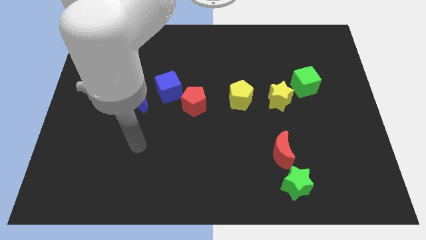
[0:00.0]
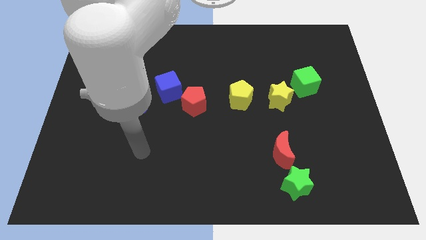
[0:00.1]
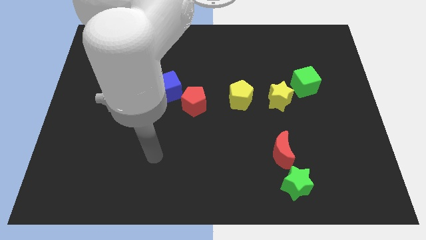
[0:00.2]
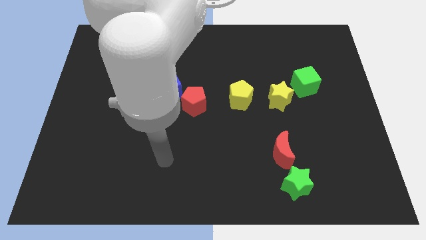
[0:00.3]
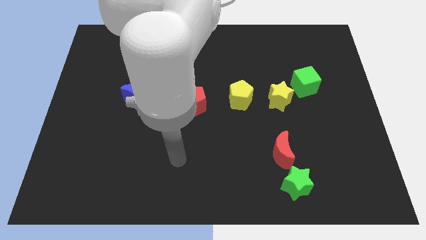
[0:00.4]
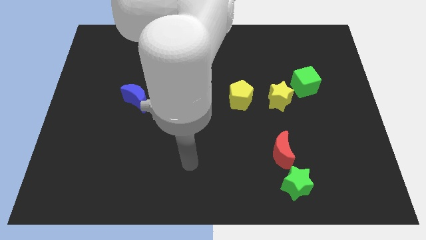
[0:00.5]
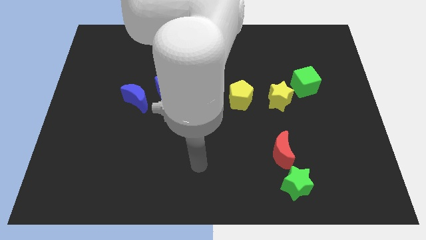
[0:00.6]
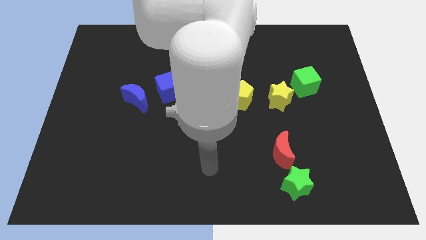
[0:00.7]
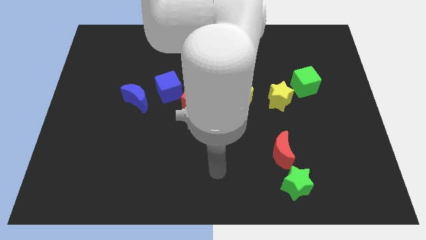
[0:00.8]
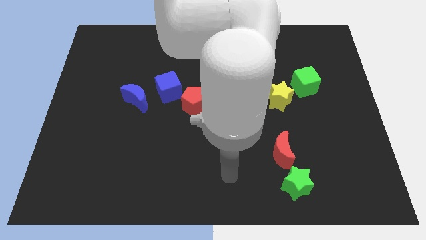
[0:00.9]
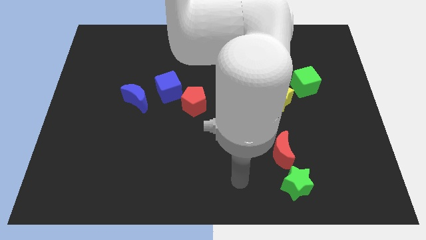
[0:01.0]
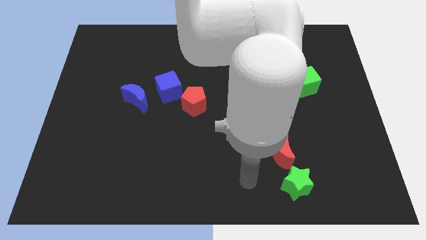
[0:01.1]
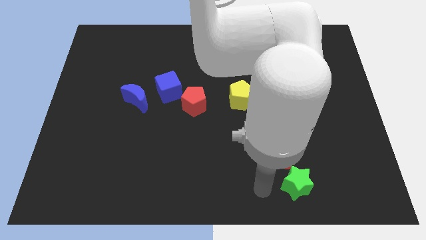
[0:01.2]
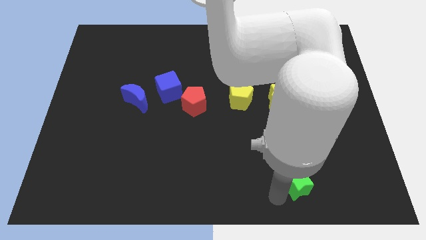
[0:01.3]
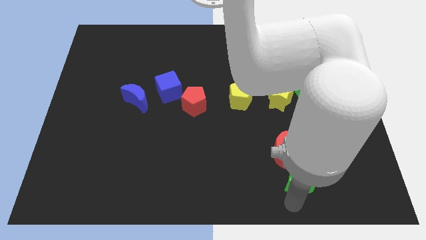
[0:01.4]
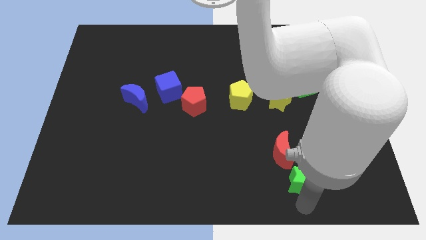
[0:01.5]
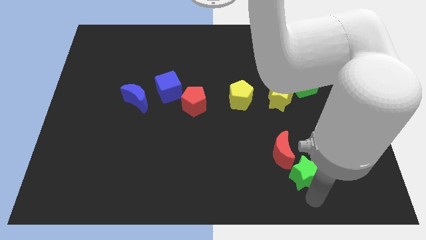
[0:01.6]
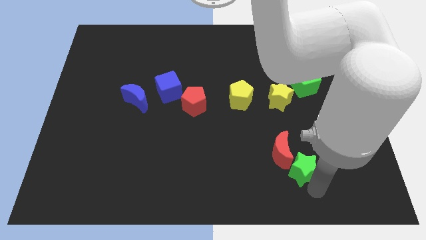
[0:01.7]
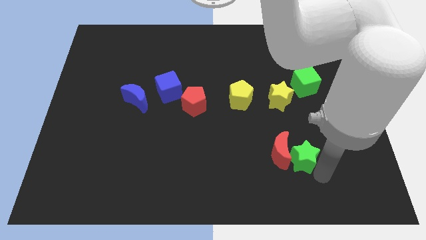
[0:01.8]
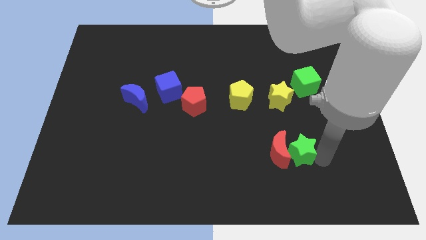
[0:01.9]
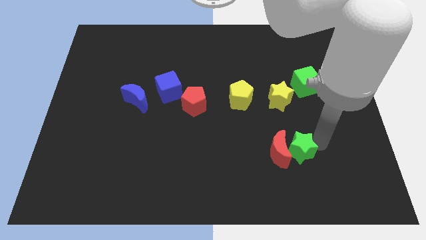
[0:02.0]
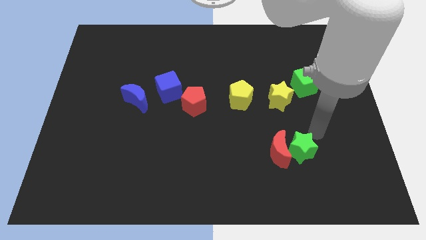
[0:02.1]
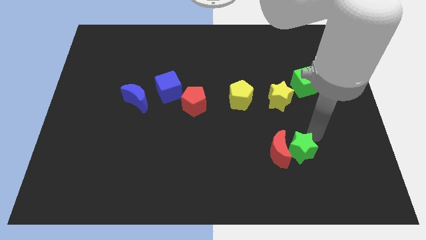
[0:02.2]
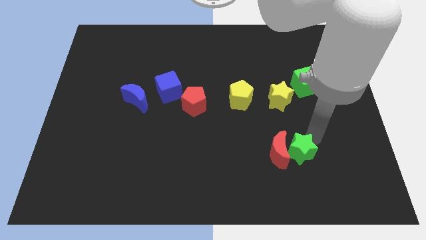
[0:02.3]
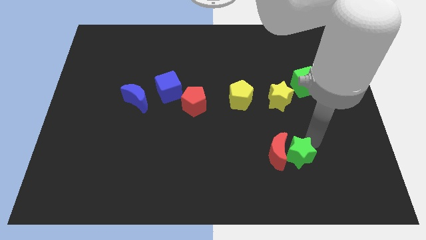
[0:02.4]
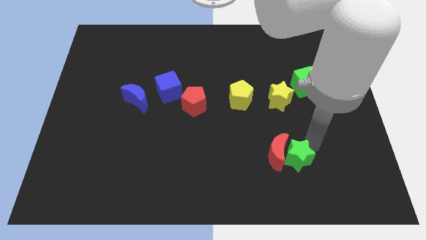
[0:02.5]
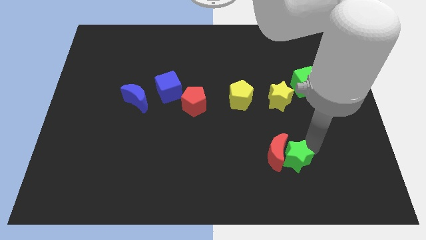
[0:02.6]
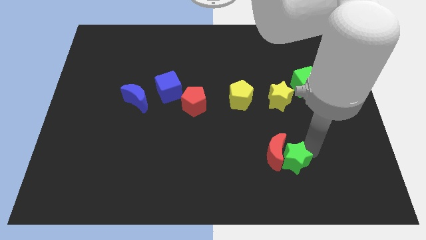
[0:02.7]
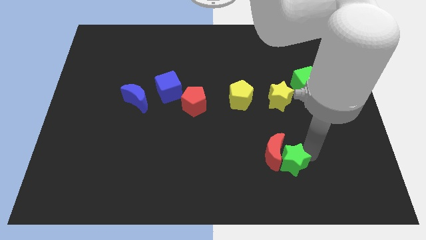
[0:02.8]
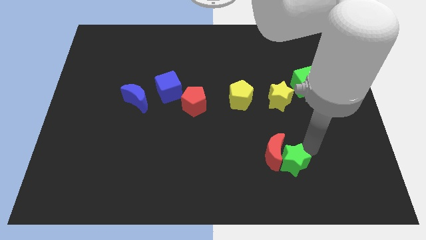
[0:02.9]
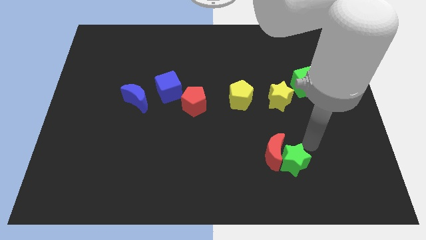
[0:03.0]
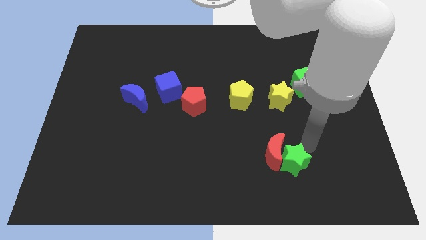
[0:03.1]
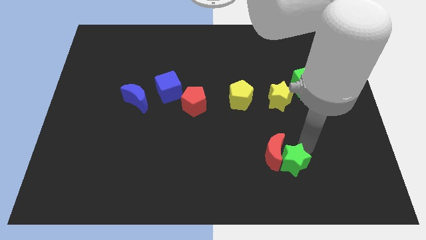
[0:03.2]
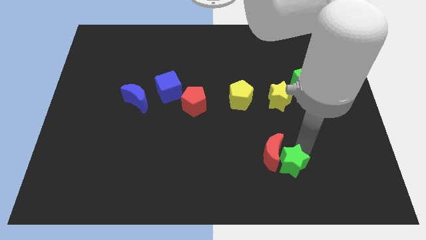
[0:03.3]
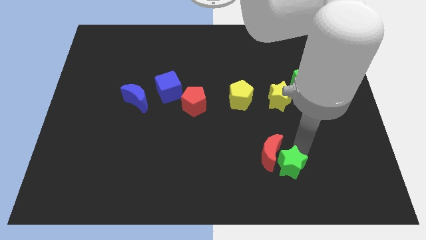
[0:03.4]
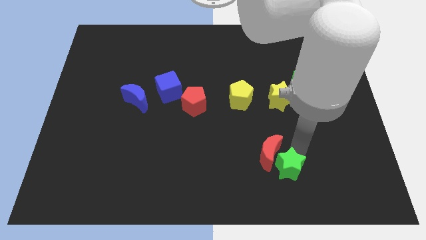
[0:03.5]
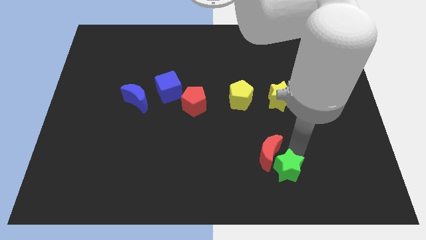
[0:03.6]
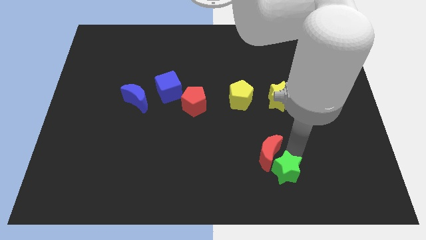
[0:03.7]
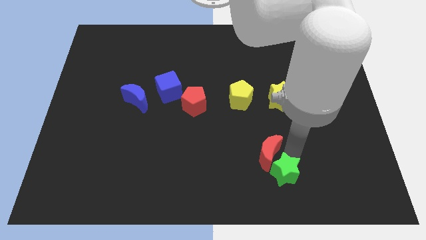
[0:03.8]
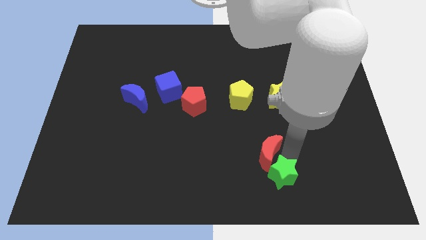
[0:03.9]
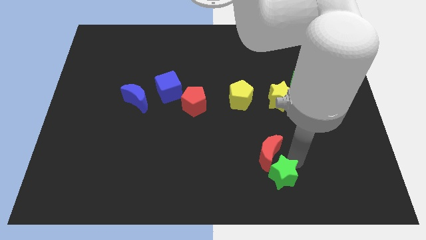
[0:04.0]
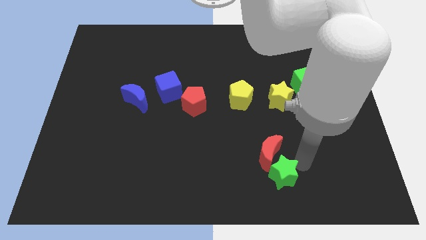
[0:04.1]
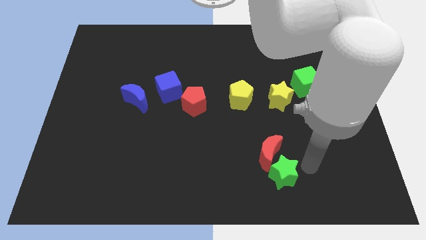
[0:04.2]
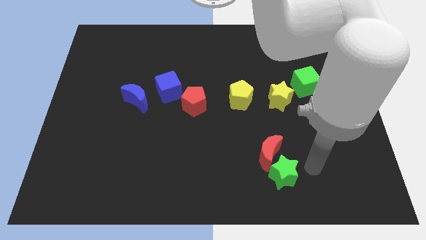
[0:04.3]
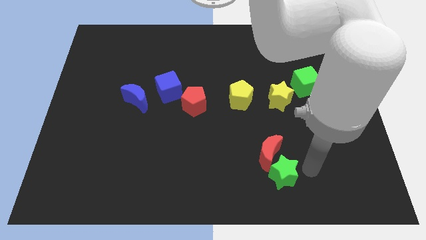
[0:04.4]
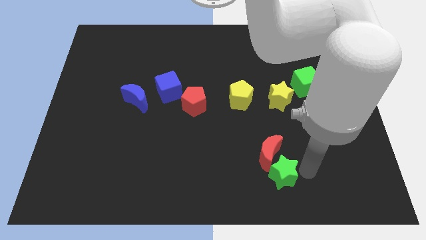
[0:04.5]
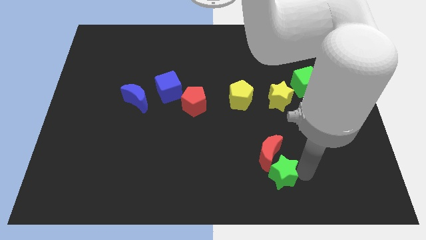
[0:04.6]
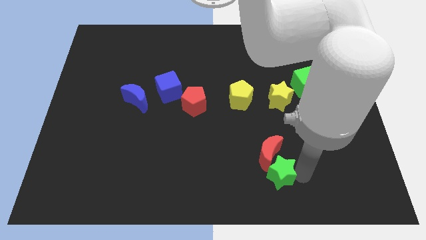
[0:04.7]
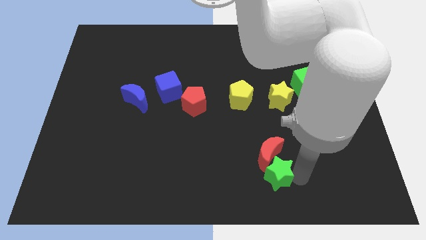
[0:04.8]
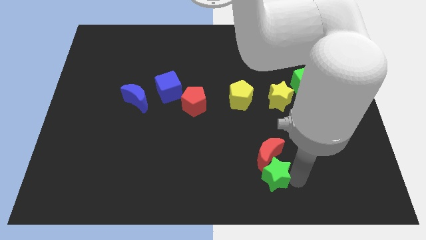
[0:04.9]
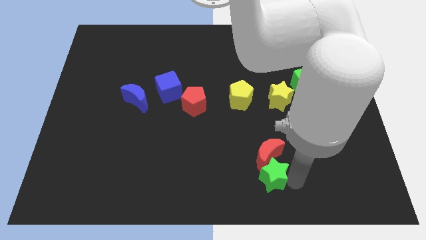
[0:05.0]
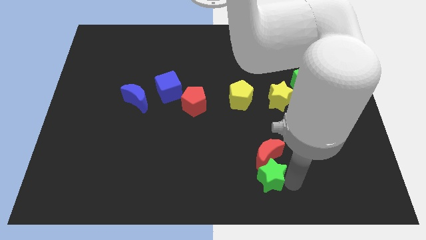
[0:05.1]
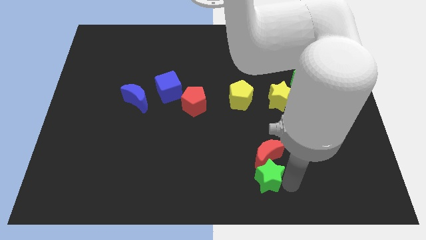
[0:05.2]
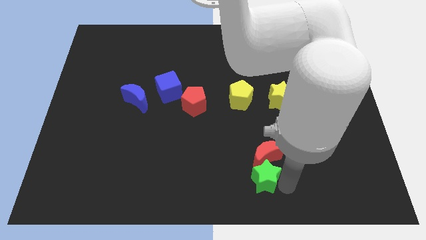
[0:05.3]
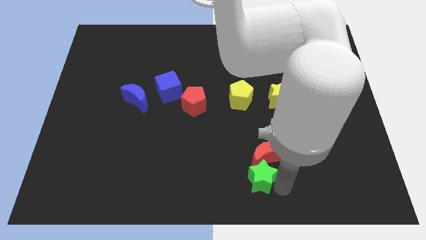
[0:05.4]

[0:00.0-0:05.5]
push the green star a little left

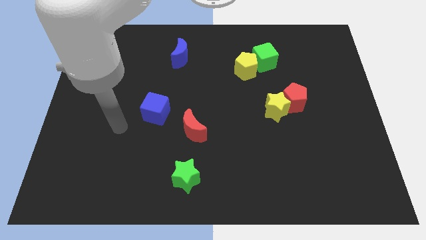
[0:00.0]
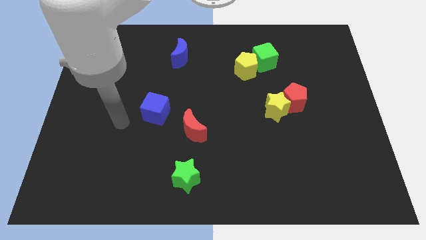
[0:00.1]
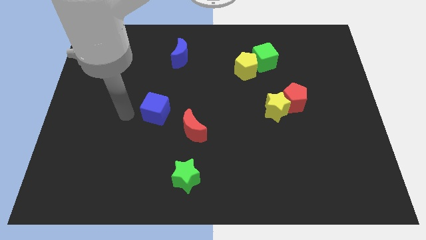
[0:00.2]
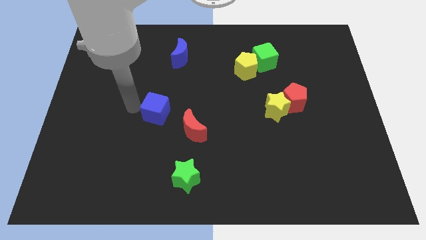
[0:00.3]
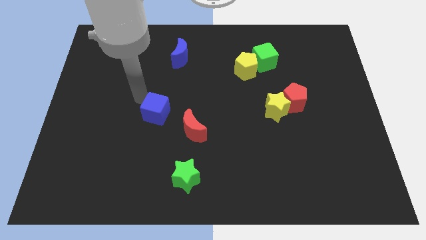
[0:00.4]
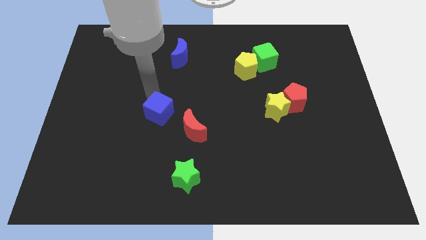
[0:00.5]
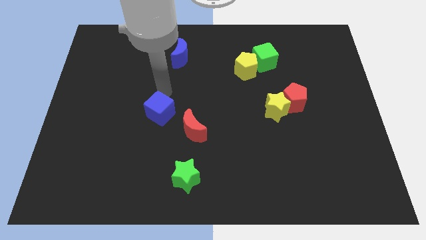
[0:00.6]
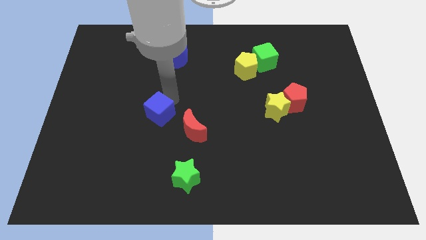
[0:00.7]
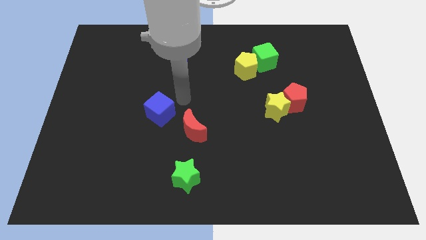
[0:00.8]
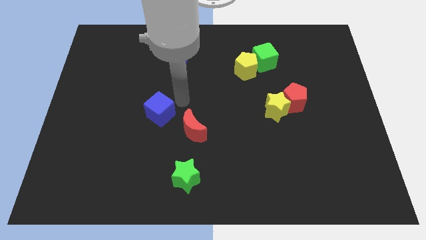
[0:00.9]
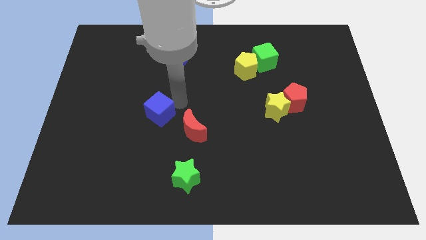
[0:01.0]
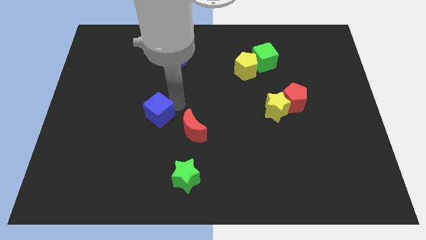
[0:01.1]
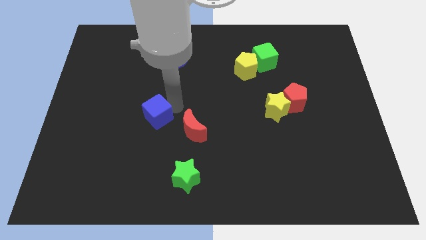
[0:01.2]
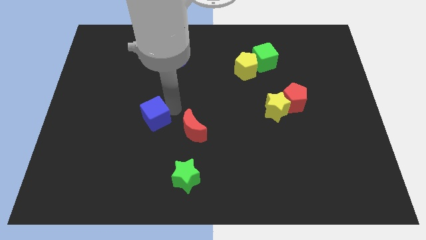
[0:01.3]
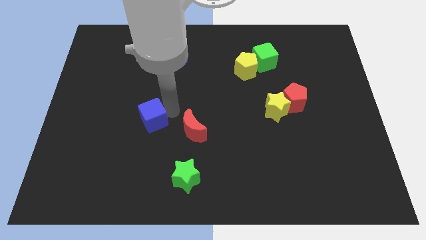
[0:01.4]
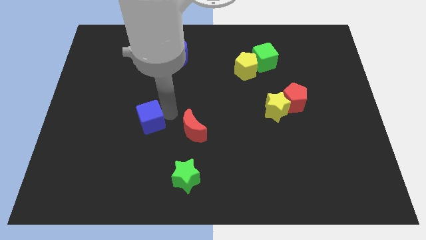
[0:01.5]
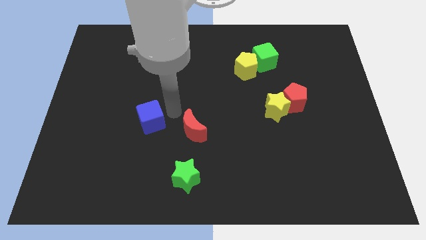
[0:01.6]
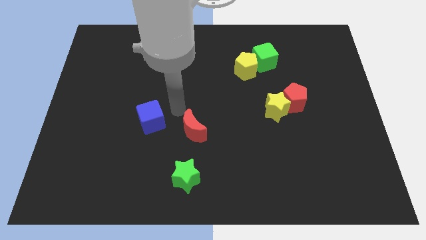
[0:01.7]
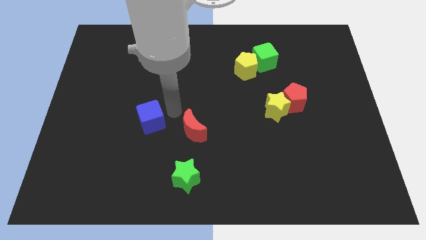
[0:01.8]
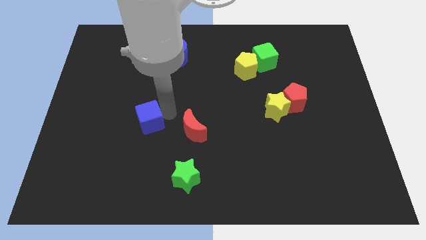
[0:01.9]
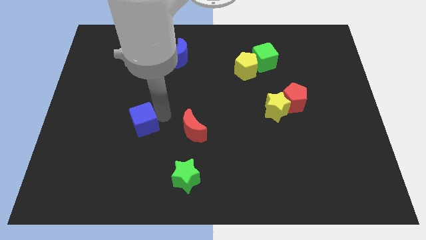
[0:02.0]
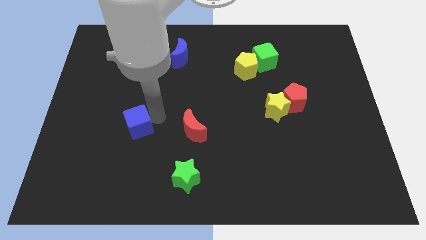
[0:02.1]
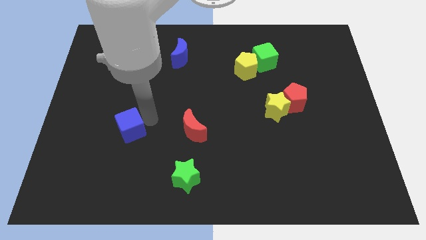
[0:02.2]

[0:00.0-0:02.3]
push the blue cube down and left diagonally a little

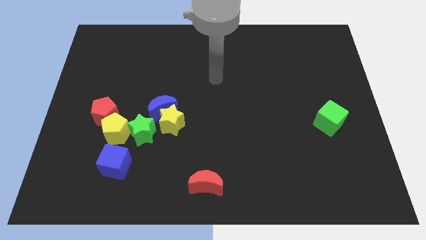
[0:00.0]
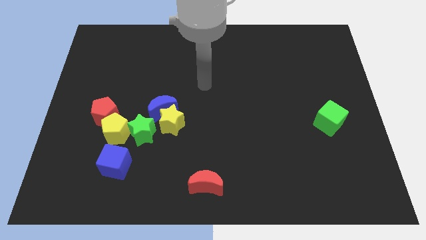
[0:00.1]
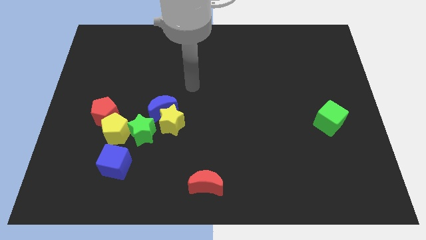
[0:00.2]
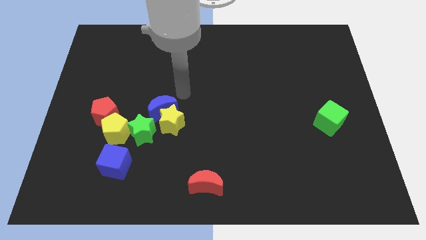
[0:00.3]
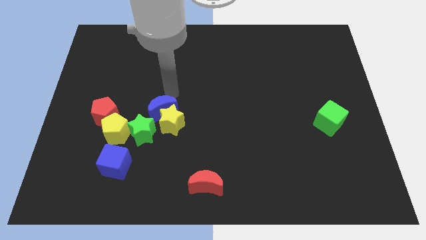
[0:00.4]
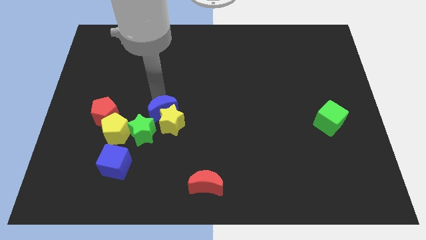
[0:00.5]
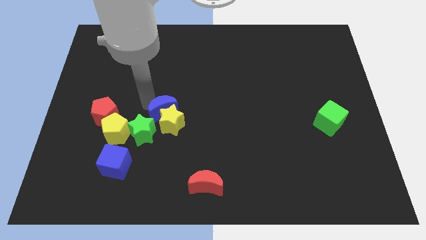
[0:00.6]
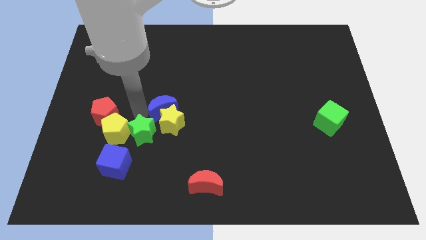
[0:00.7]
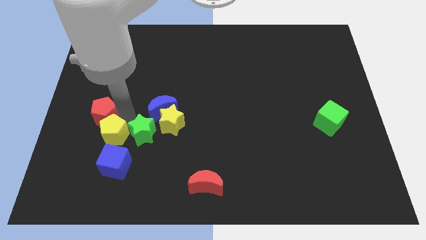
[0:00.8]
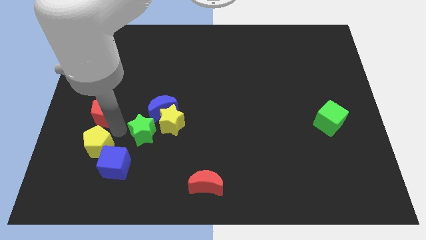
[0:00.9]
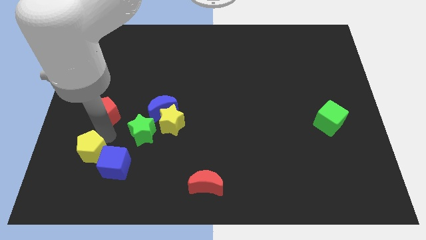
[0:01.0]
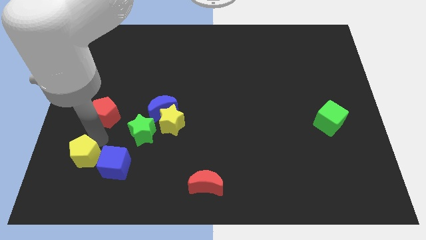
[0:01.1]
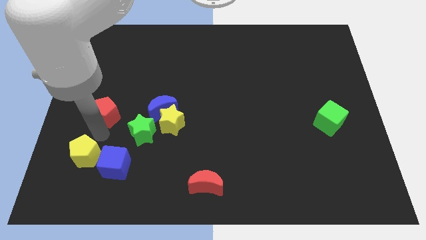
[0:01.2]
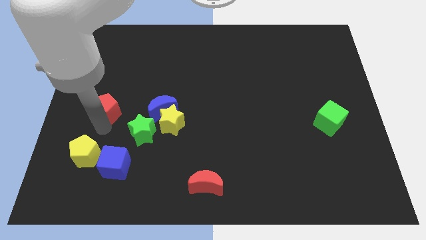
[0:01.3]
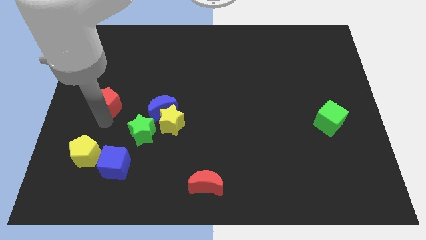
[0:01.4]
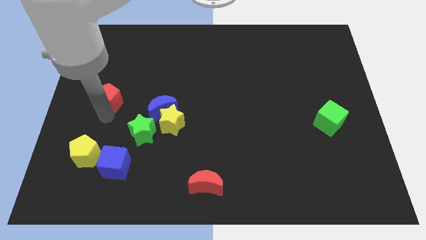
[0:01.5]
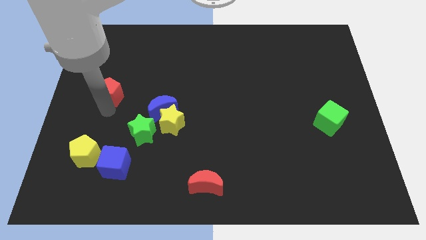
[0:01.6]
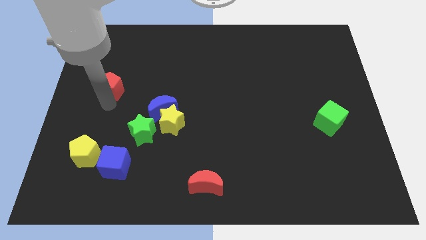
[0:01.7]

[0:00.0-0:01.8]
slide the red pentagon up slightly
